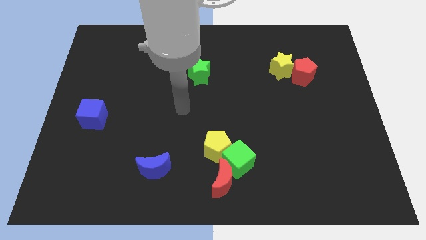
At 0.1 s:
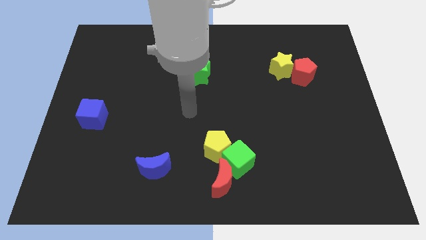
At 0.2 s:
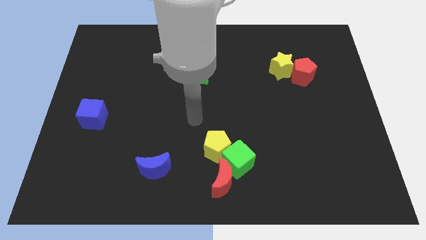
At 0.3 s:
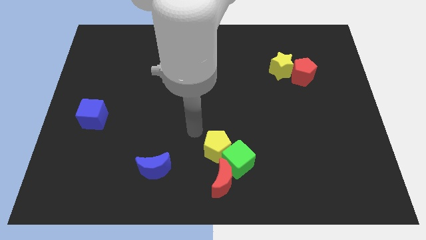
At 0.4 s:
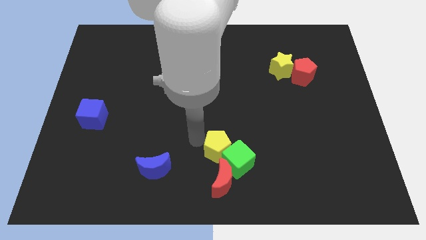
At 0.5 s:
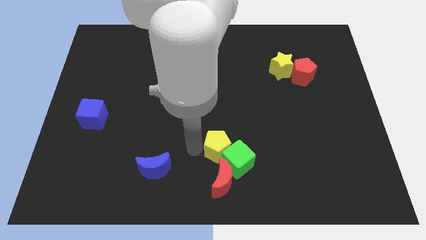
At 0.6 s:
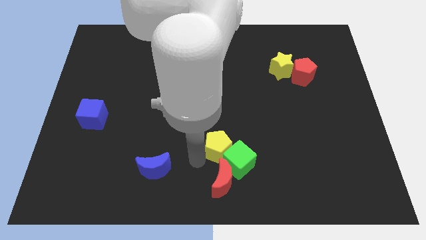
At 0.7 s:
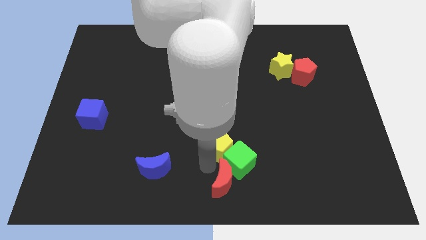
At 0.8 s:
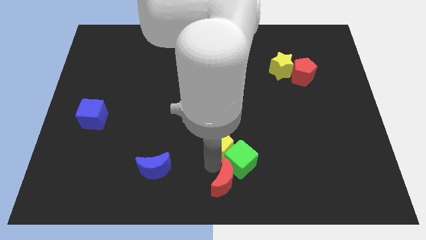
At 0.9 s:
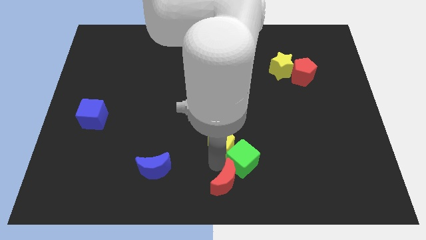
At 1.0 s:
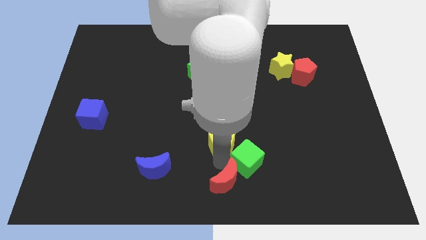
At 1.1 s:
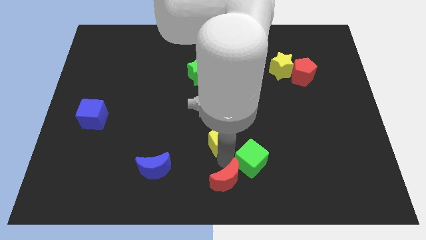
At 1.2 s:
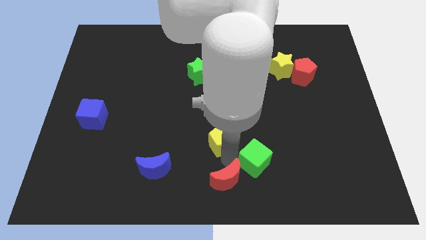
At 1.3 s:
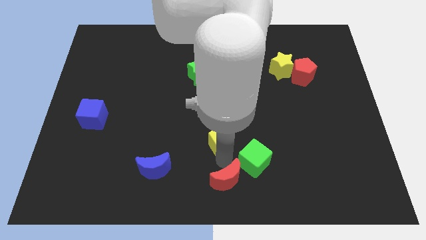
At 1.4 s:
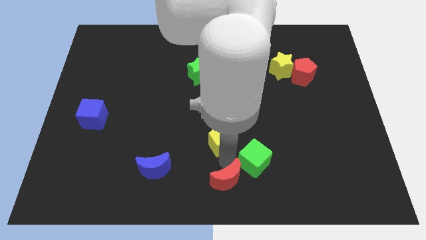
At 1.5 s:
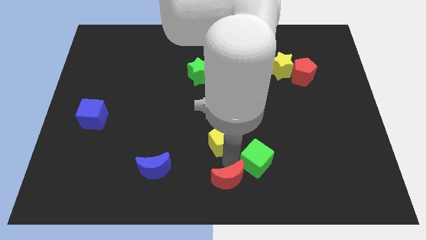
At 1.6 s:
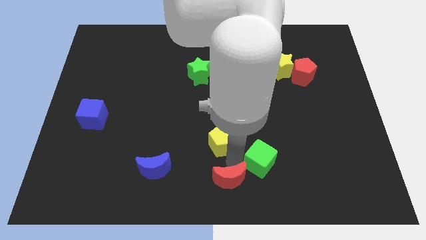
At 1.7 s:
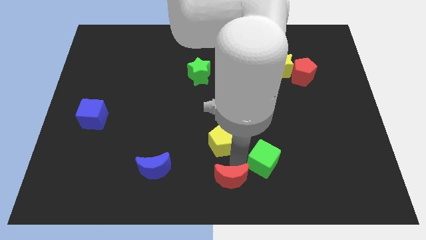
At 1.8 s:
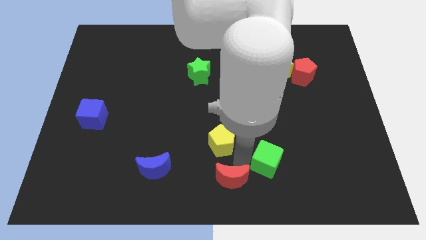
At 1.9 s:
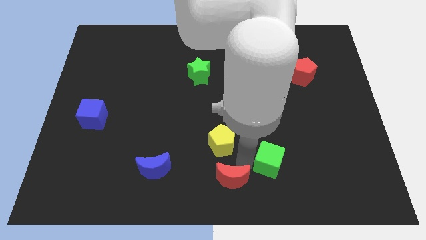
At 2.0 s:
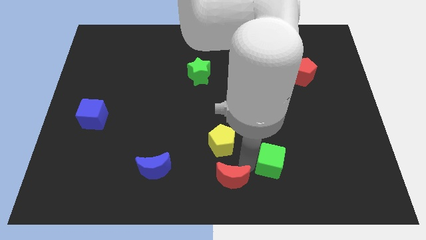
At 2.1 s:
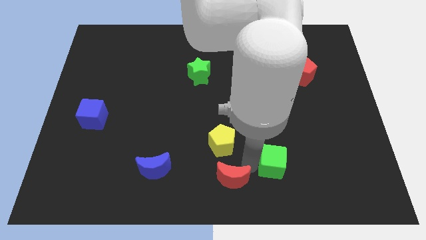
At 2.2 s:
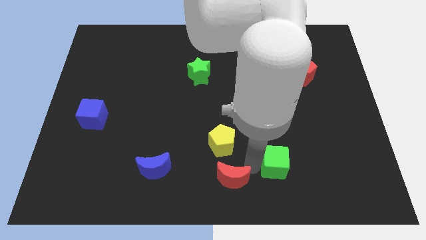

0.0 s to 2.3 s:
separate the green cube from the yellow pentagon and red moon

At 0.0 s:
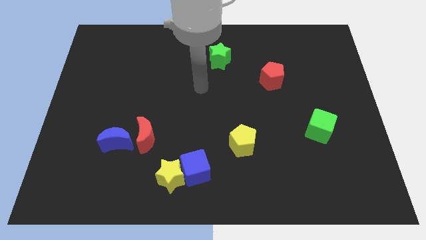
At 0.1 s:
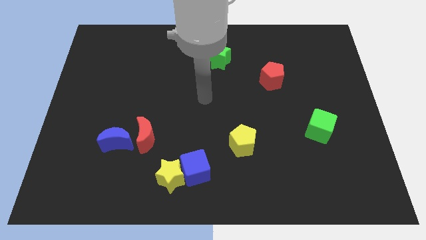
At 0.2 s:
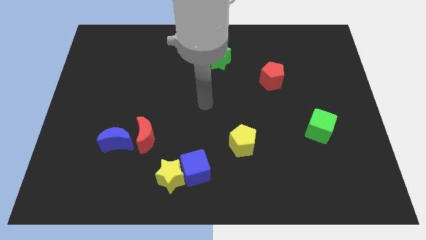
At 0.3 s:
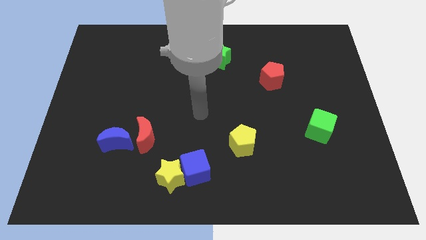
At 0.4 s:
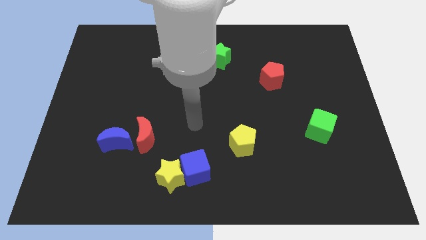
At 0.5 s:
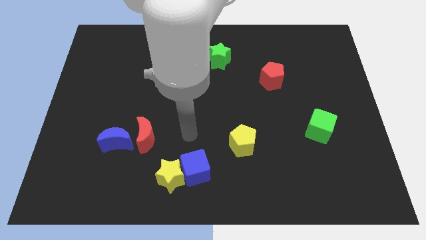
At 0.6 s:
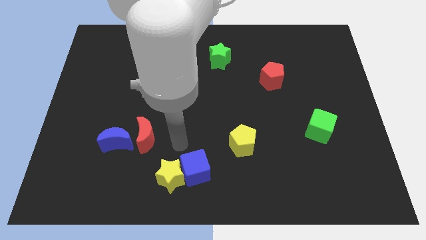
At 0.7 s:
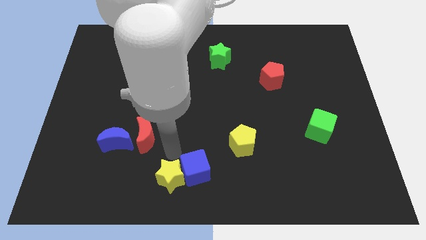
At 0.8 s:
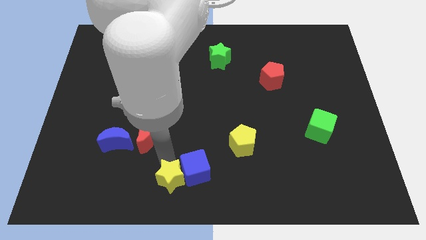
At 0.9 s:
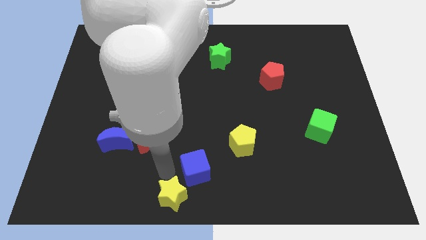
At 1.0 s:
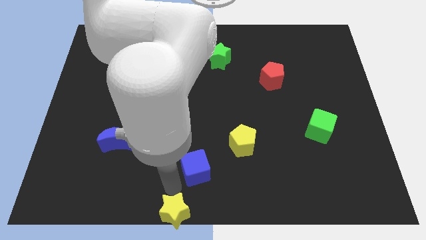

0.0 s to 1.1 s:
separate the blue cube from the yellow star

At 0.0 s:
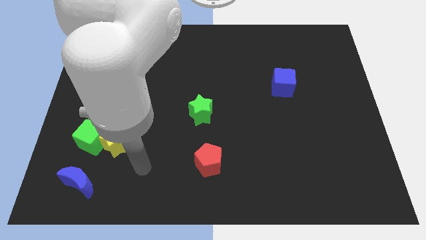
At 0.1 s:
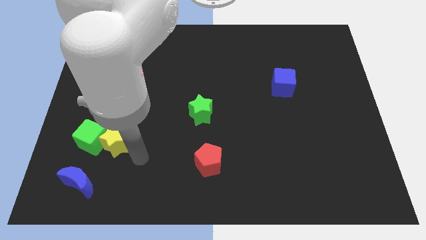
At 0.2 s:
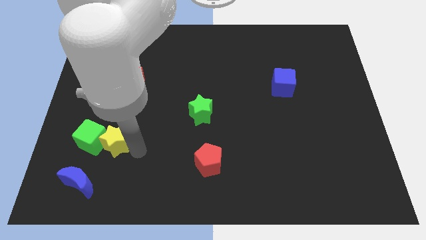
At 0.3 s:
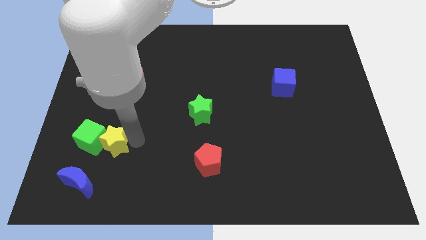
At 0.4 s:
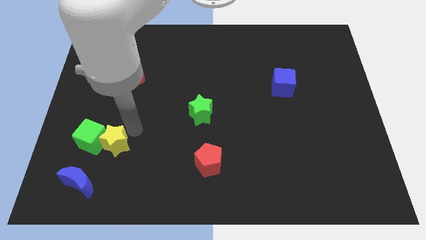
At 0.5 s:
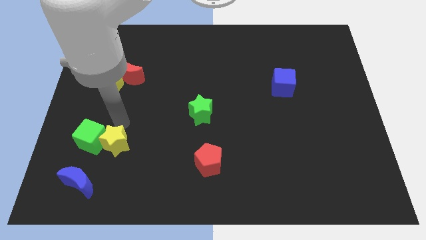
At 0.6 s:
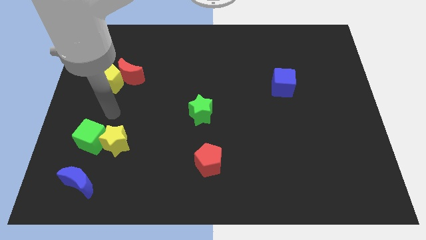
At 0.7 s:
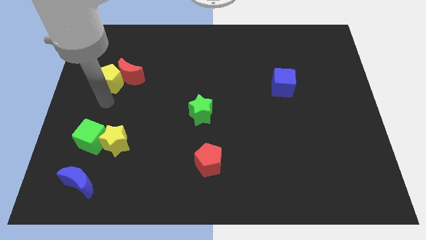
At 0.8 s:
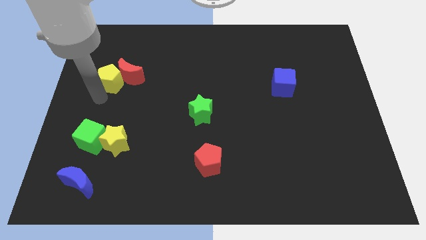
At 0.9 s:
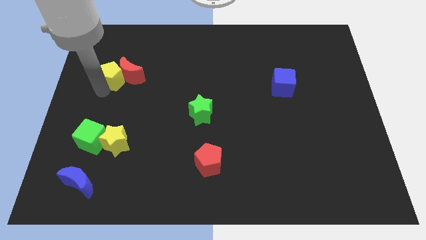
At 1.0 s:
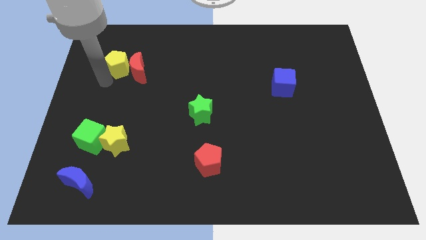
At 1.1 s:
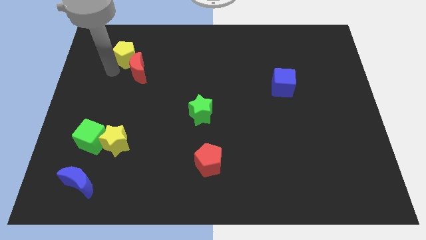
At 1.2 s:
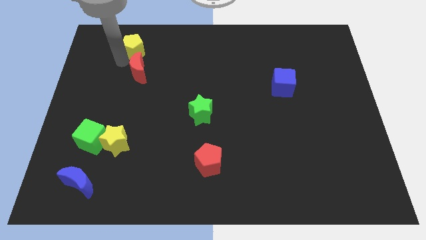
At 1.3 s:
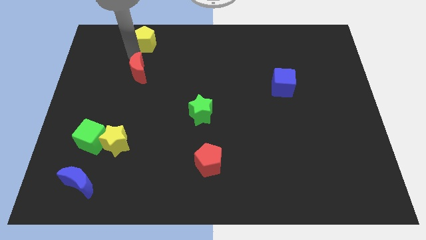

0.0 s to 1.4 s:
separate the red moon from the yellow pentagon

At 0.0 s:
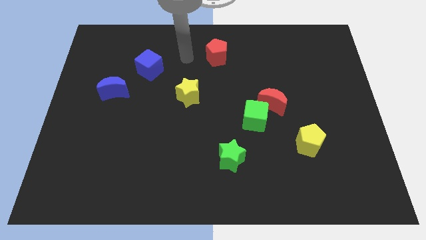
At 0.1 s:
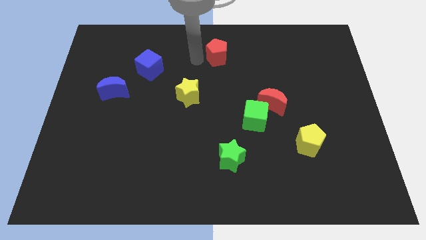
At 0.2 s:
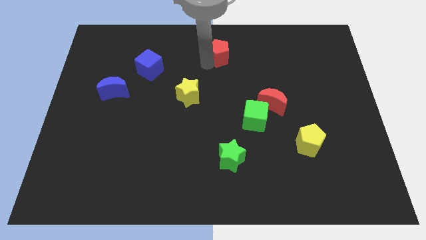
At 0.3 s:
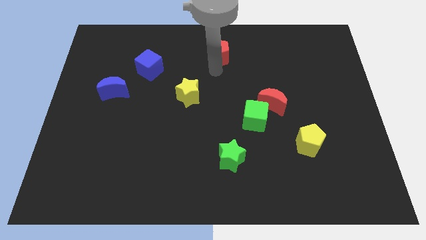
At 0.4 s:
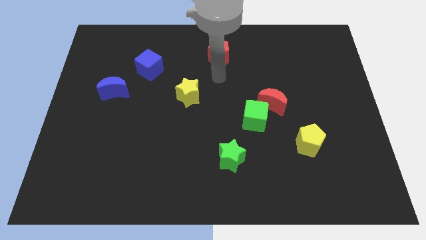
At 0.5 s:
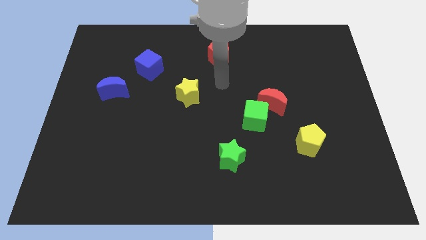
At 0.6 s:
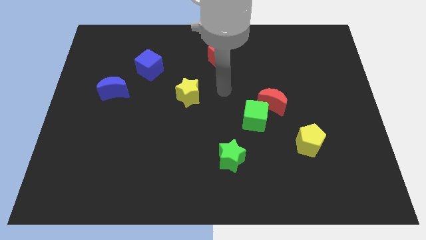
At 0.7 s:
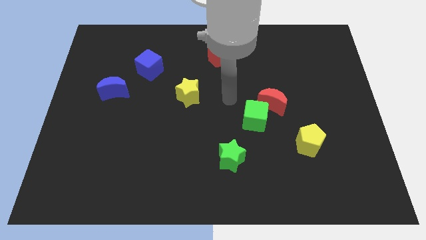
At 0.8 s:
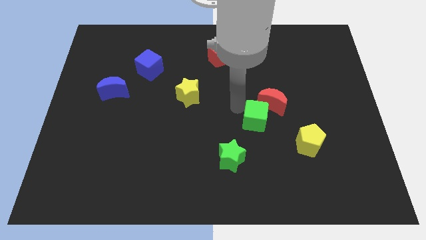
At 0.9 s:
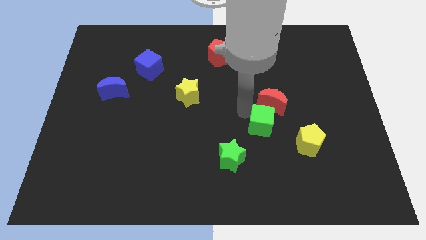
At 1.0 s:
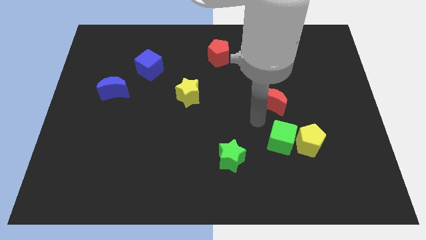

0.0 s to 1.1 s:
move the red moon away from the green cube

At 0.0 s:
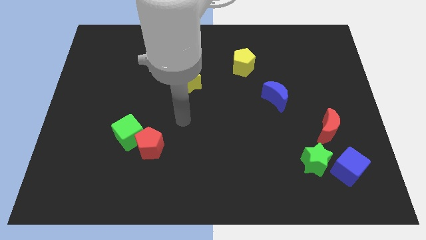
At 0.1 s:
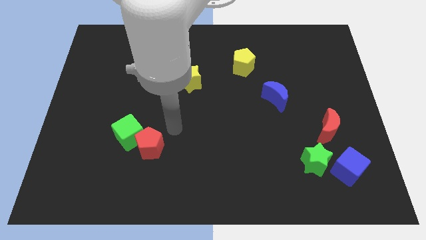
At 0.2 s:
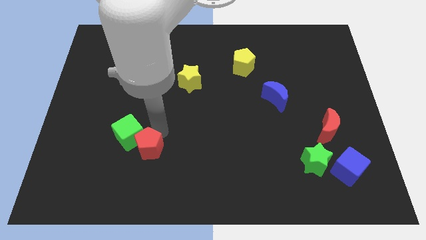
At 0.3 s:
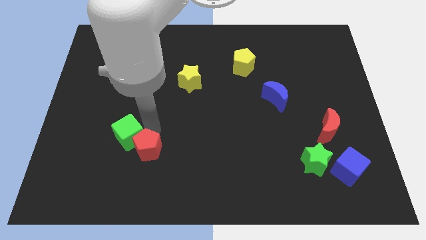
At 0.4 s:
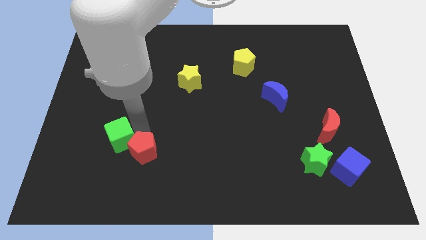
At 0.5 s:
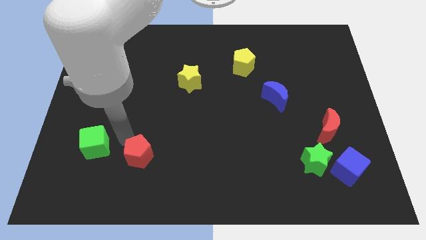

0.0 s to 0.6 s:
pull the red pentagon apart from the green cube

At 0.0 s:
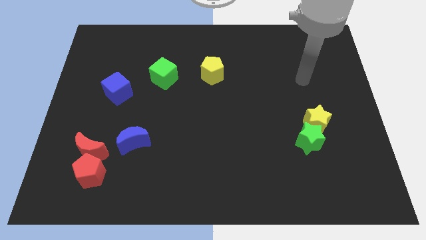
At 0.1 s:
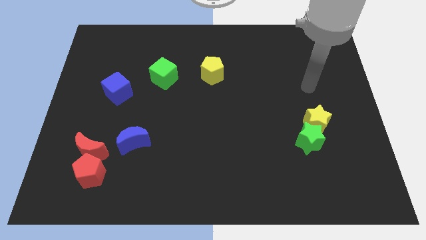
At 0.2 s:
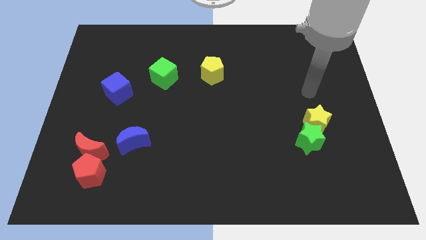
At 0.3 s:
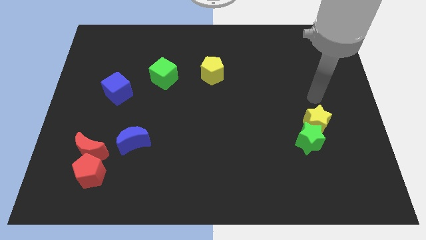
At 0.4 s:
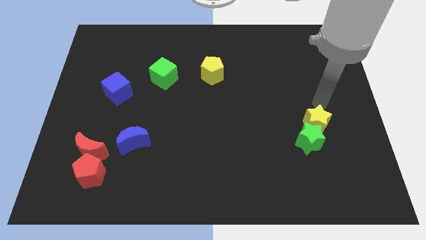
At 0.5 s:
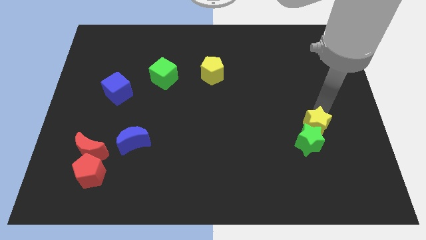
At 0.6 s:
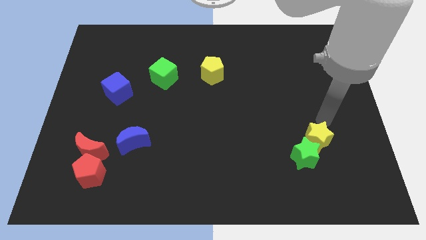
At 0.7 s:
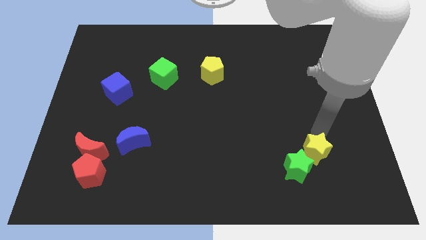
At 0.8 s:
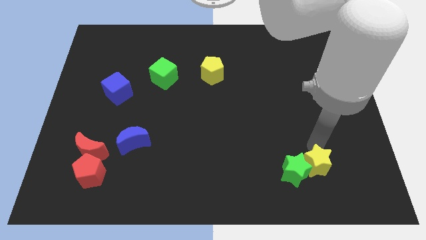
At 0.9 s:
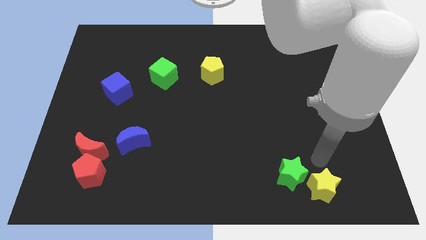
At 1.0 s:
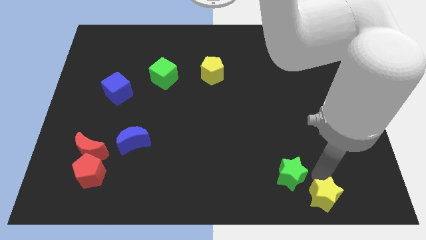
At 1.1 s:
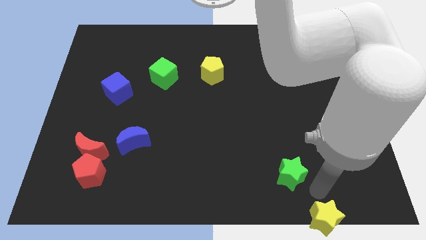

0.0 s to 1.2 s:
move the green star away from the yellow star

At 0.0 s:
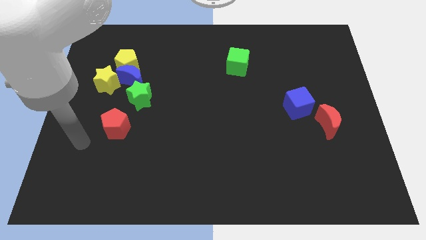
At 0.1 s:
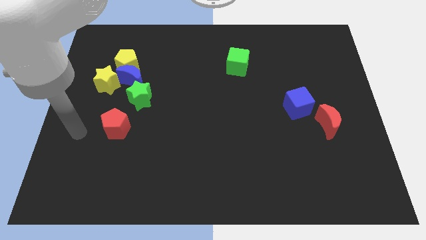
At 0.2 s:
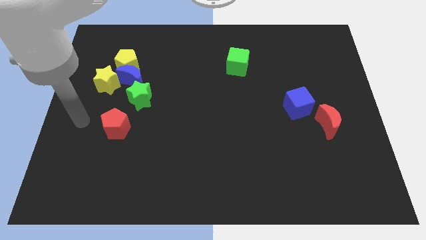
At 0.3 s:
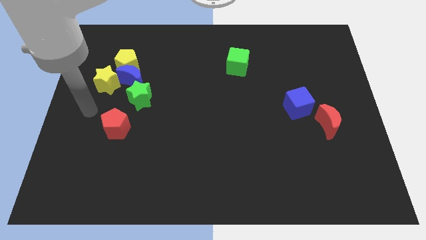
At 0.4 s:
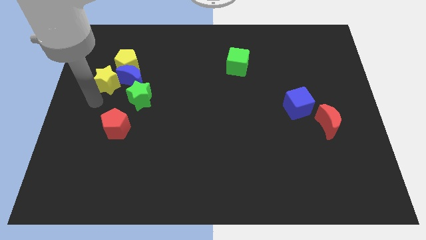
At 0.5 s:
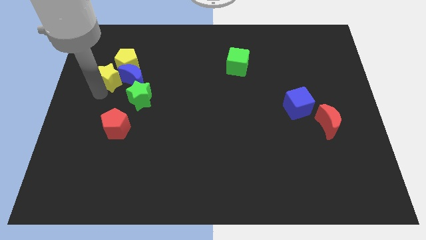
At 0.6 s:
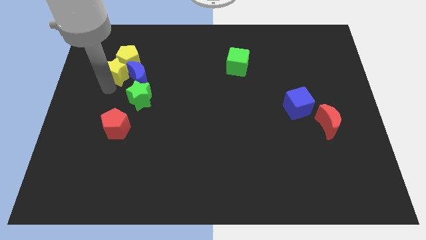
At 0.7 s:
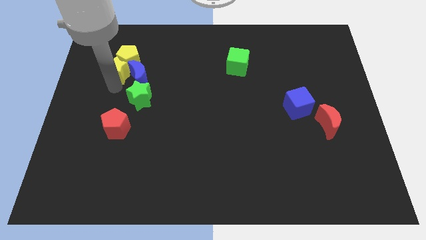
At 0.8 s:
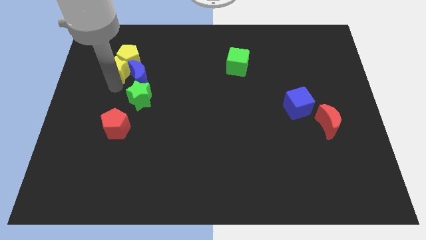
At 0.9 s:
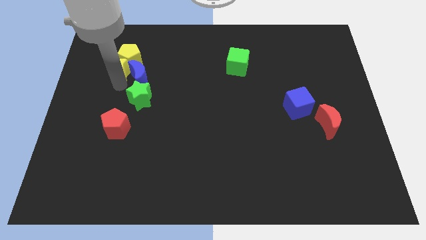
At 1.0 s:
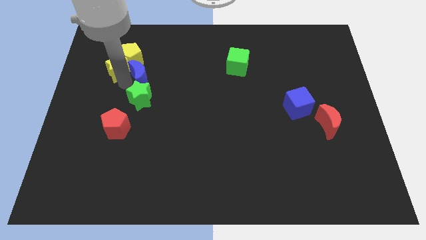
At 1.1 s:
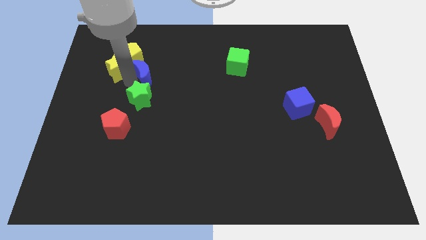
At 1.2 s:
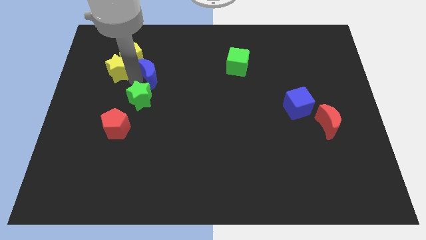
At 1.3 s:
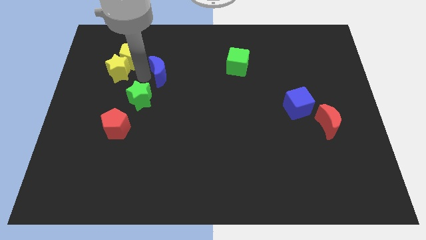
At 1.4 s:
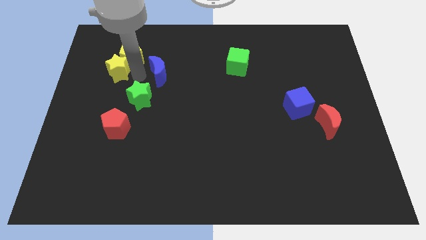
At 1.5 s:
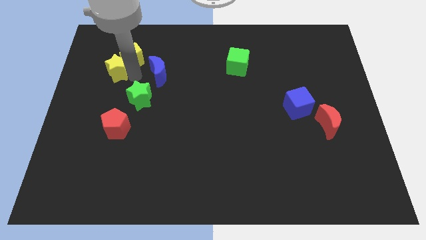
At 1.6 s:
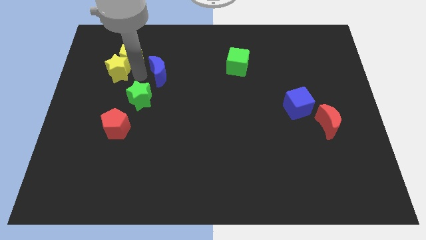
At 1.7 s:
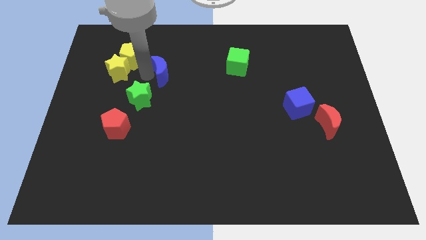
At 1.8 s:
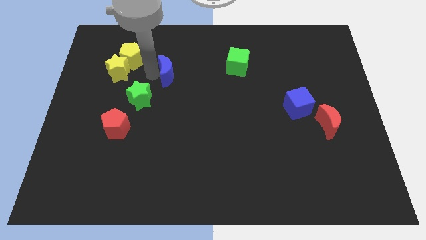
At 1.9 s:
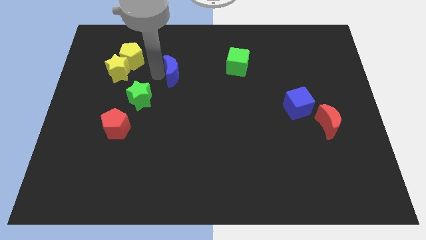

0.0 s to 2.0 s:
separate the blue moon from the yellow pentagon, yellow star, and green star
